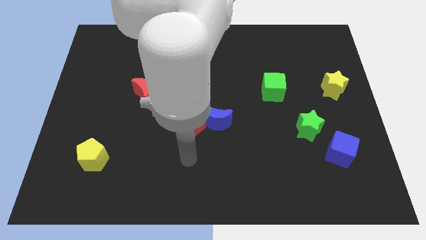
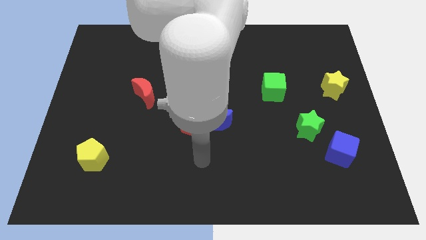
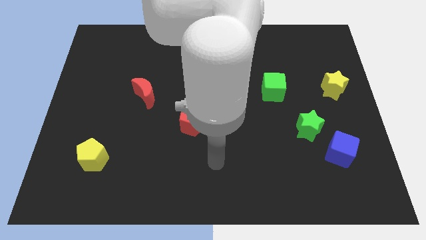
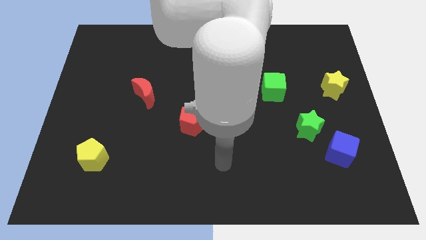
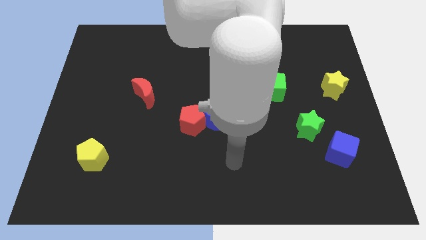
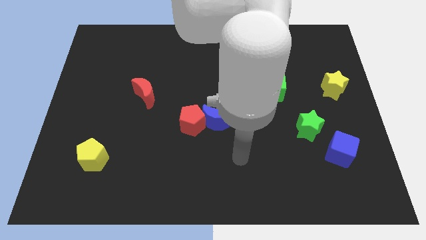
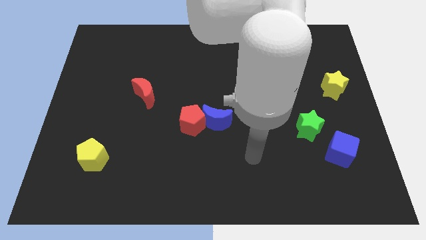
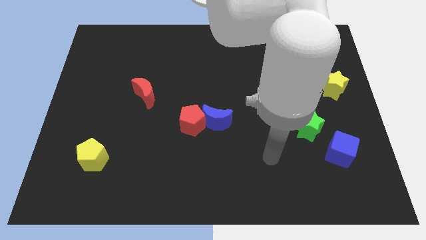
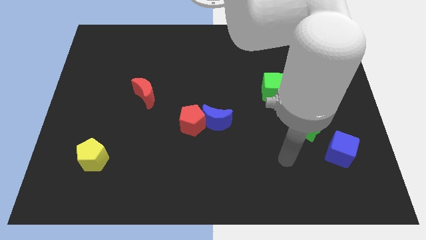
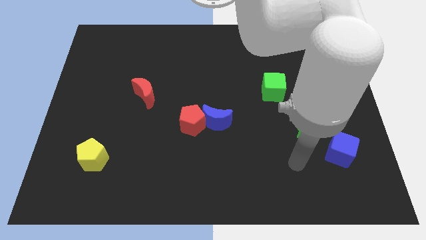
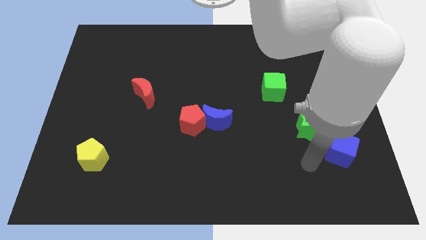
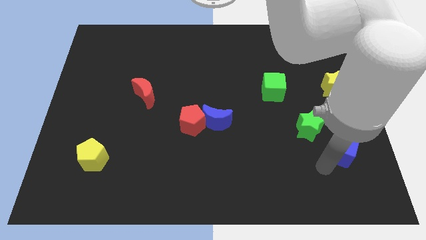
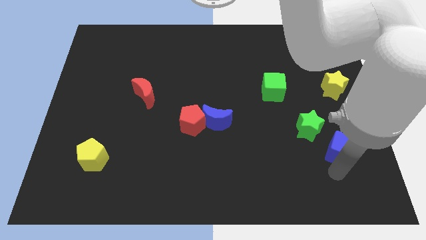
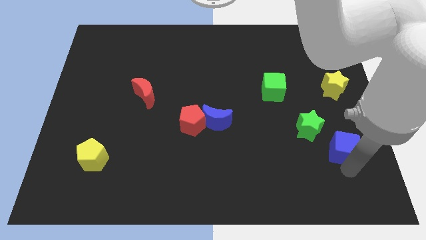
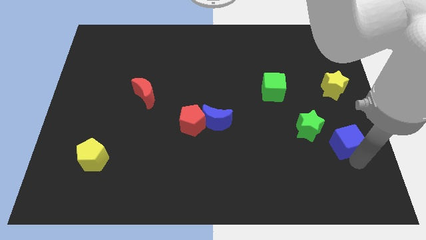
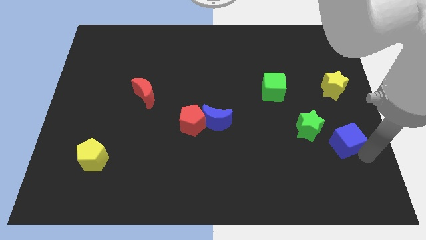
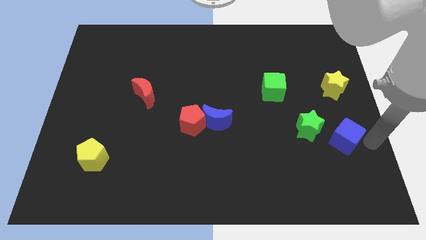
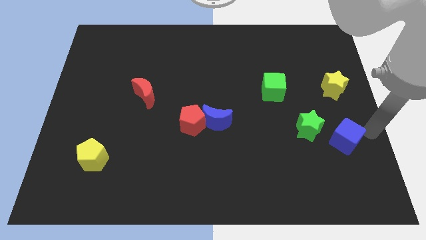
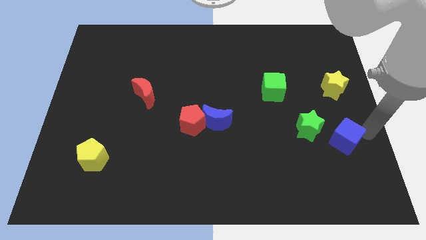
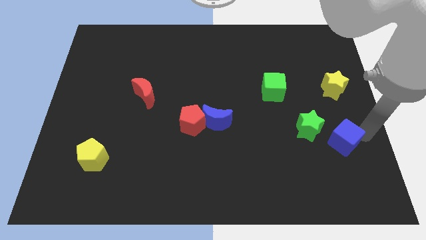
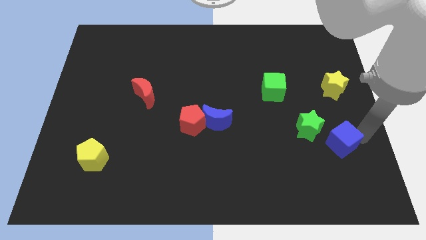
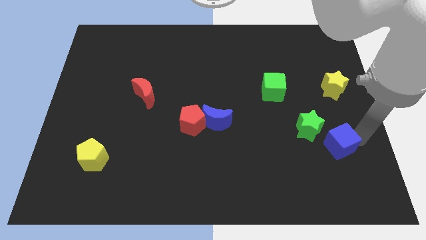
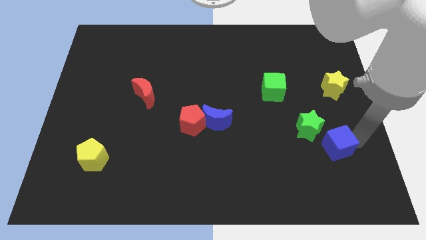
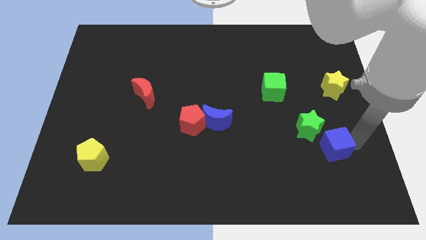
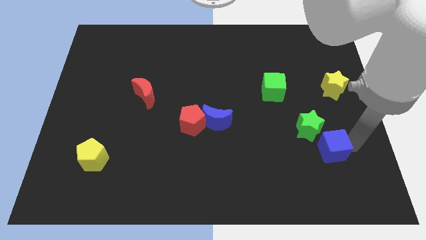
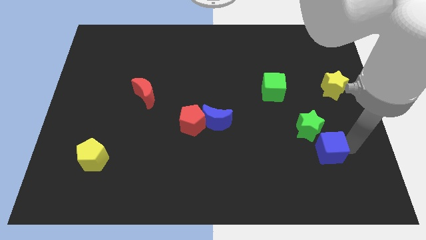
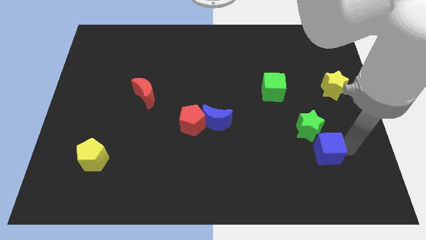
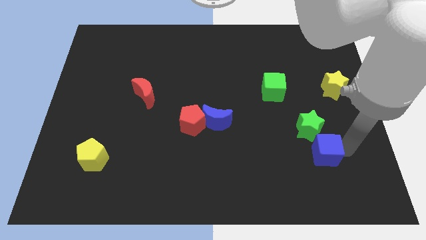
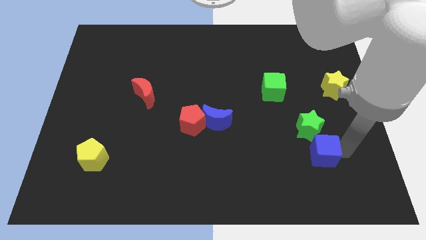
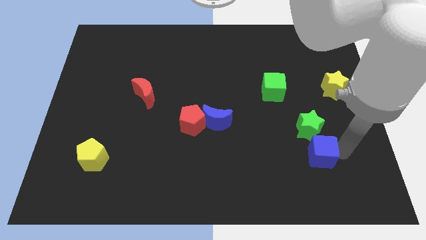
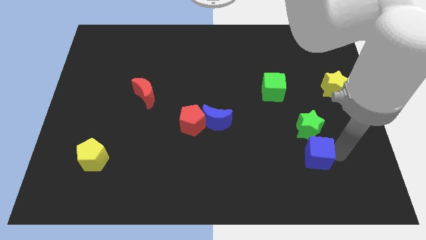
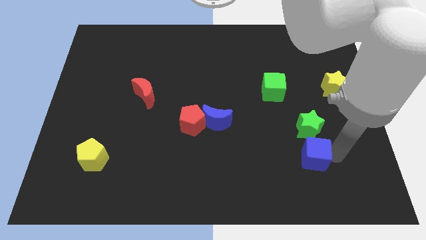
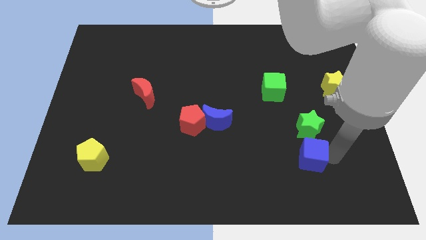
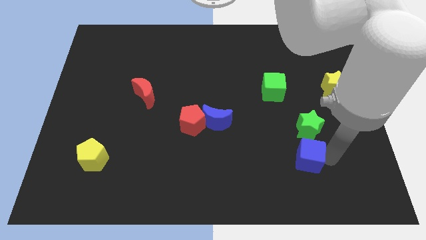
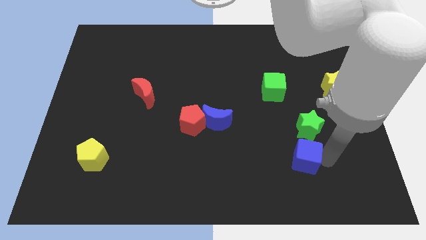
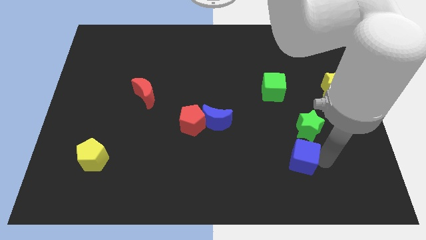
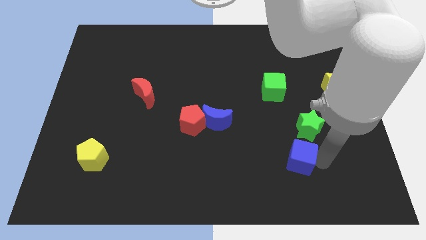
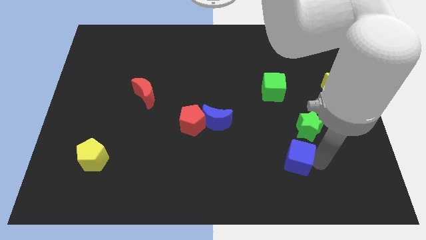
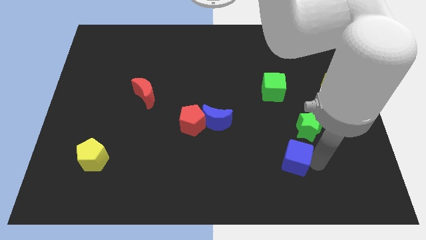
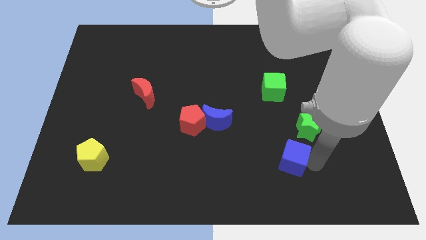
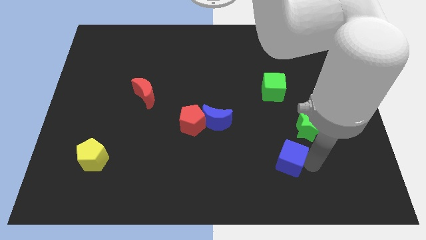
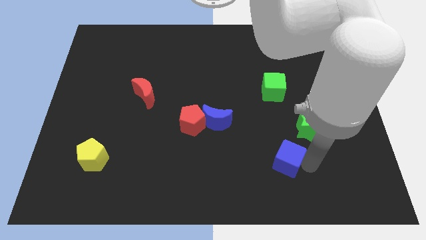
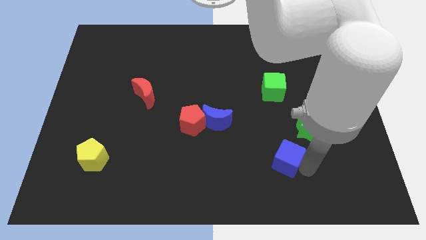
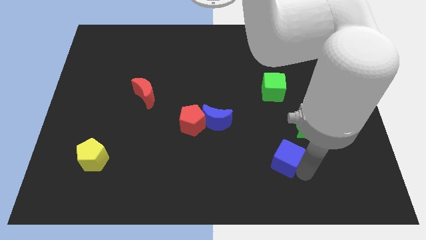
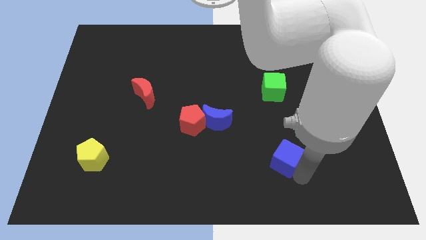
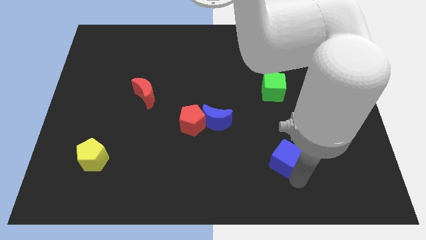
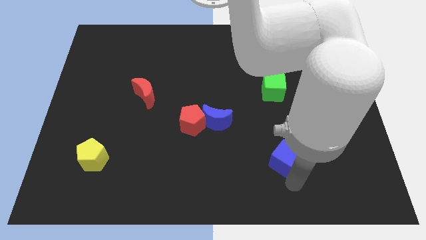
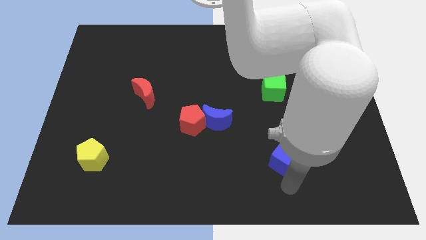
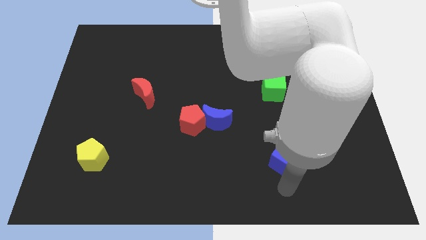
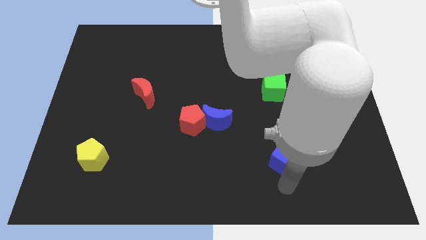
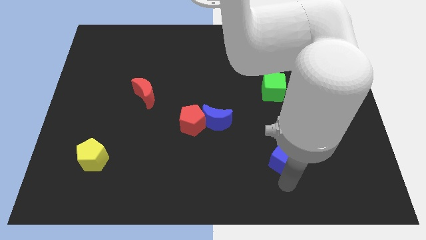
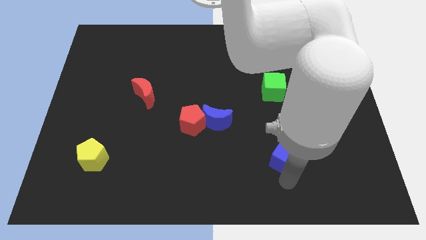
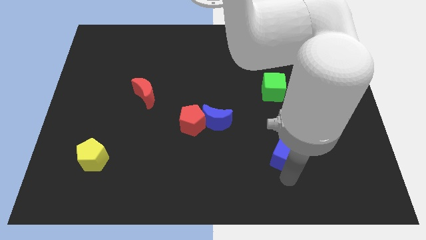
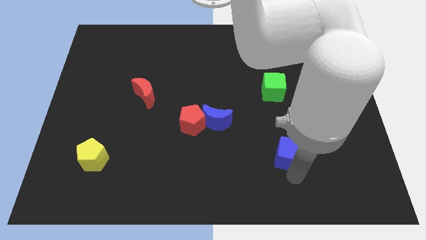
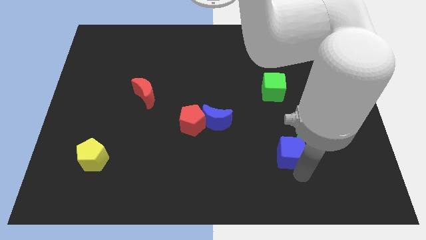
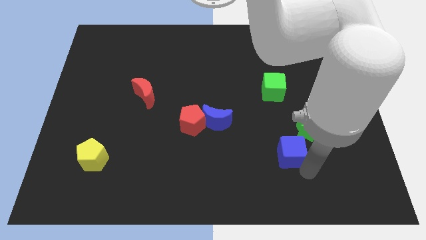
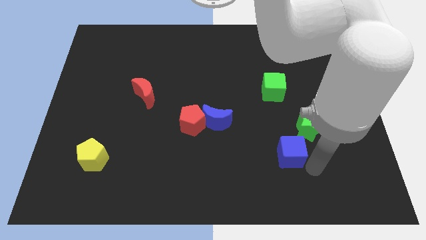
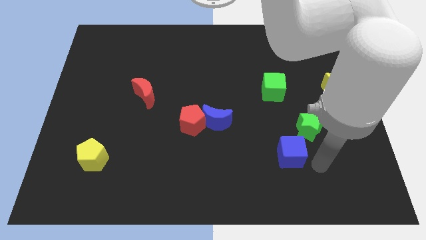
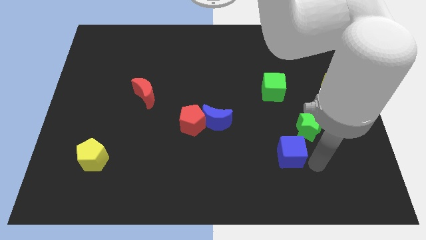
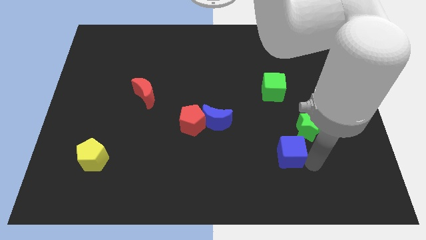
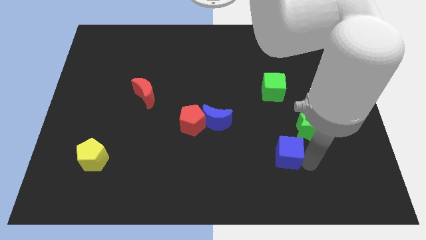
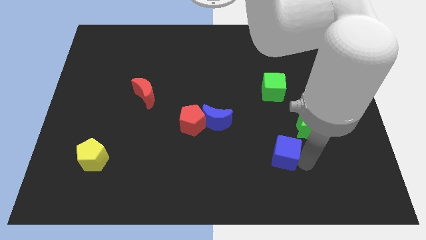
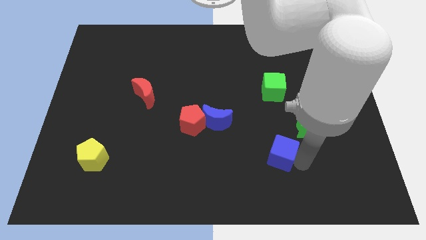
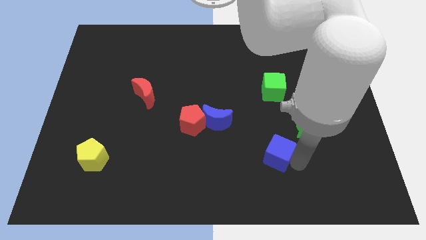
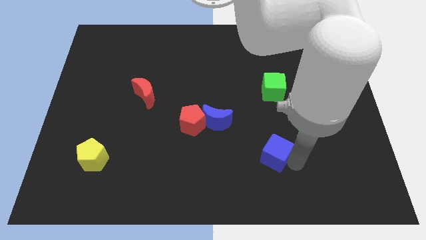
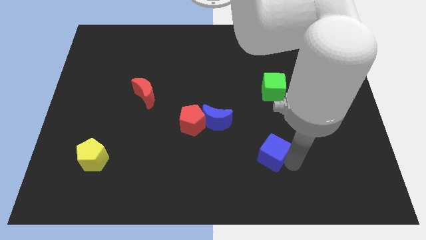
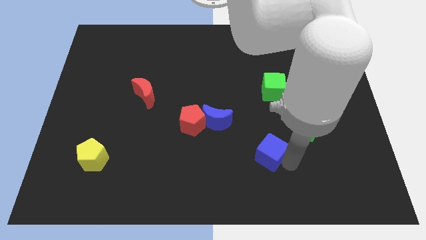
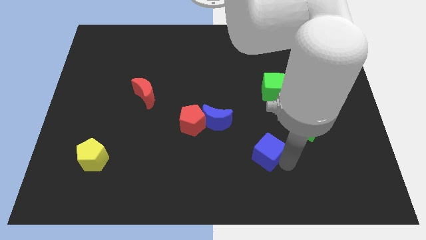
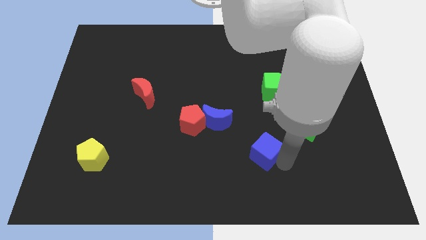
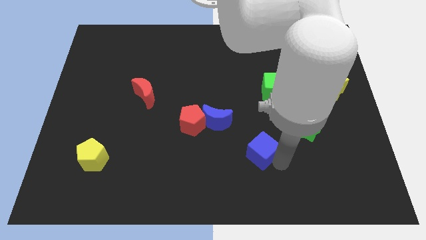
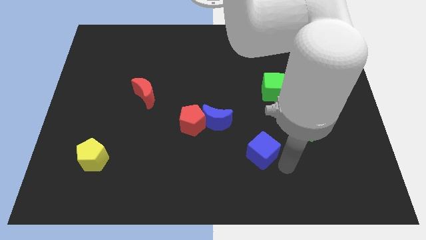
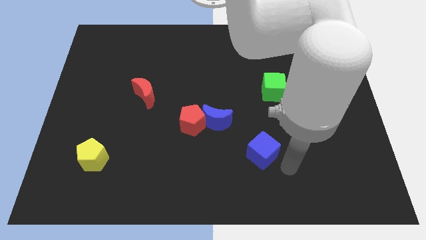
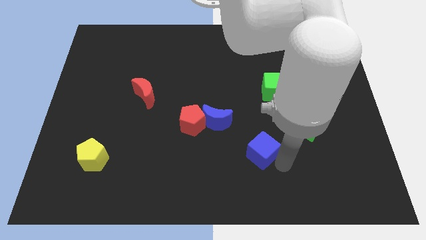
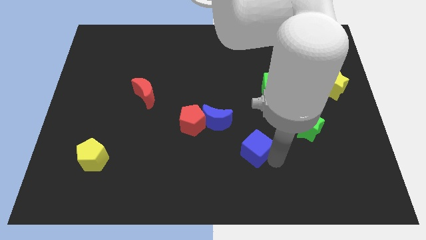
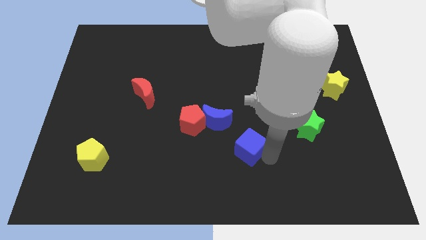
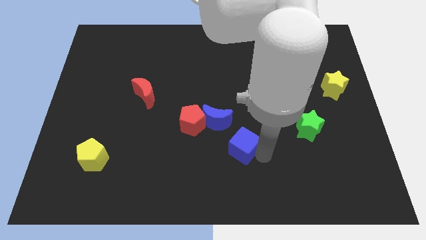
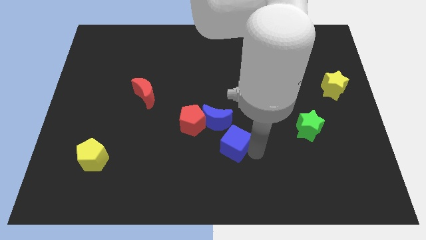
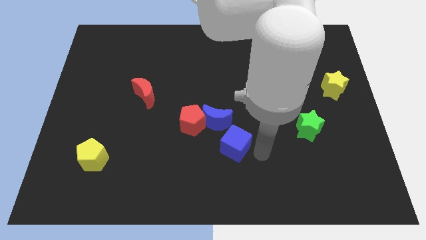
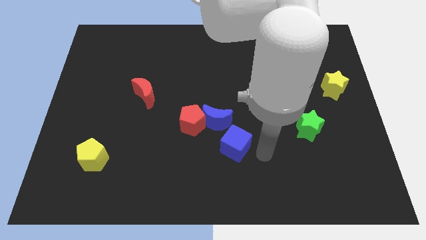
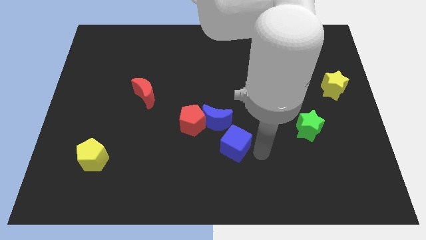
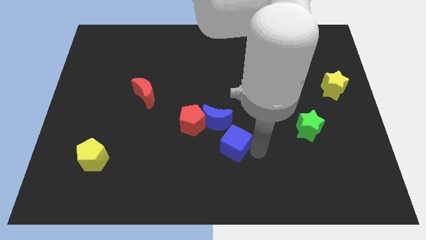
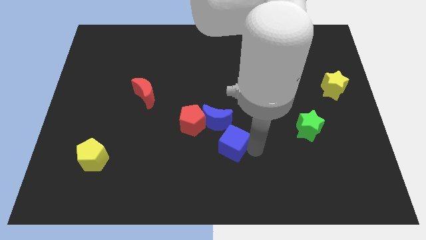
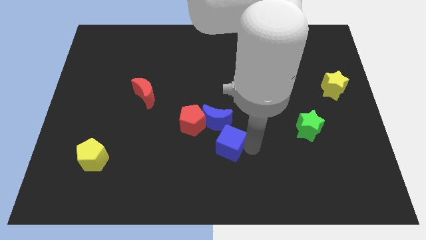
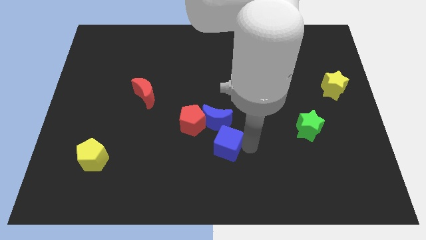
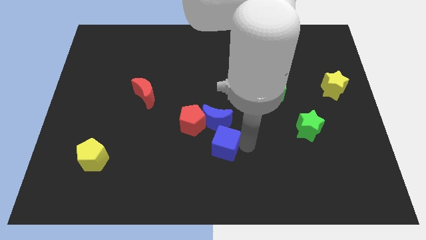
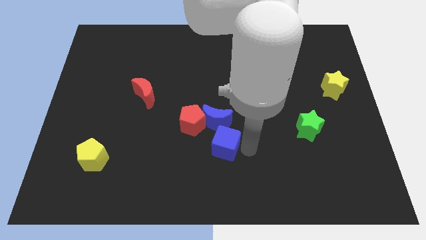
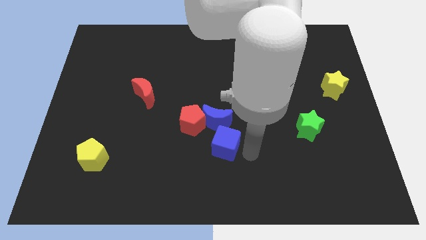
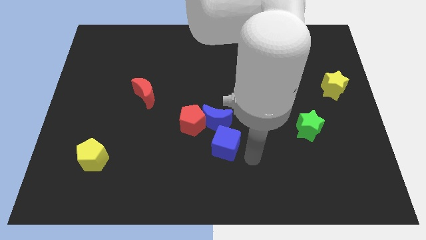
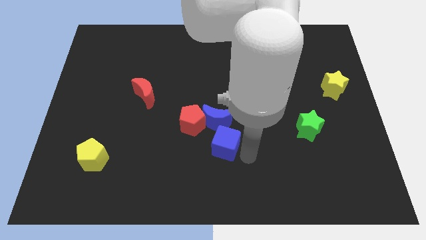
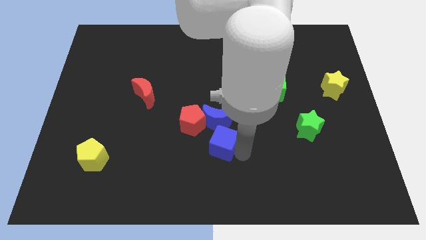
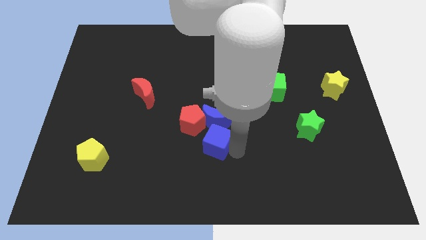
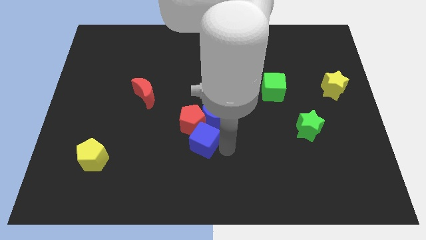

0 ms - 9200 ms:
slide the blue cube next to the red pentagon
